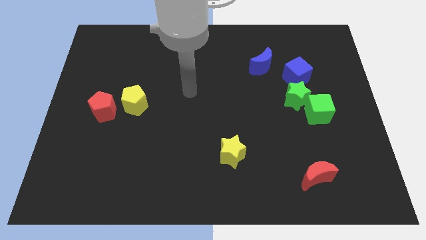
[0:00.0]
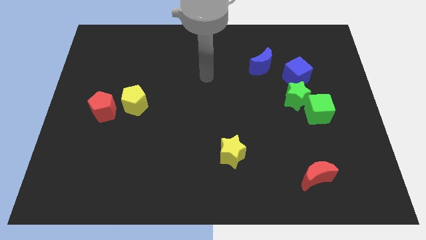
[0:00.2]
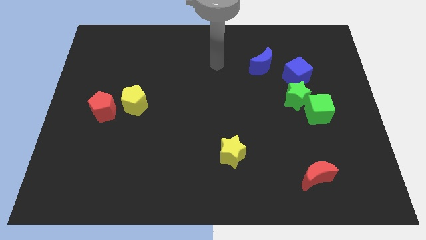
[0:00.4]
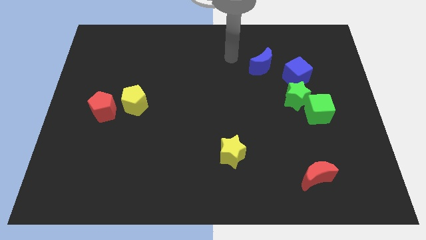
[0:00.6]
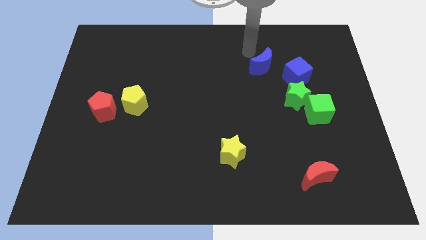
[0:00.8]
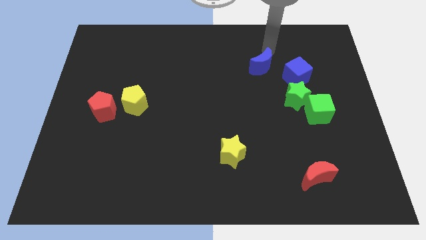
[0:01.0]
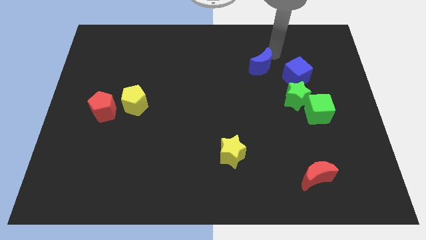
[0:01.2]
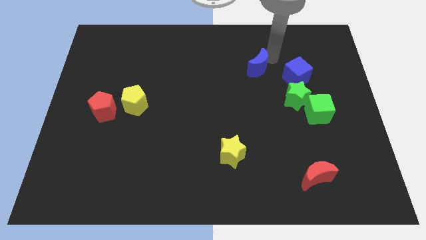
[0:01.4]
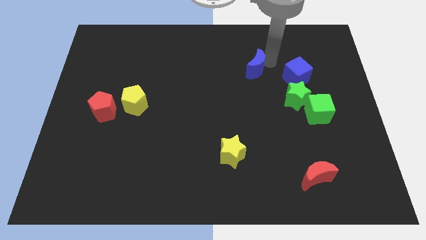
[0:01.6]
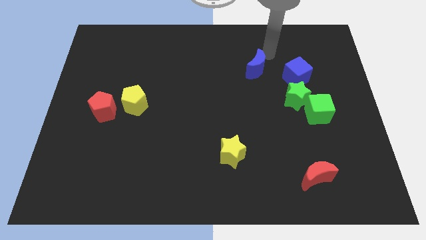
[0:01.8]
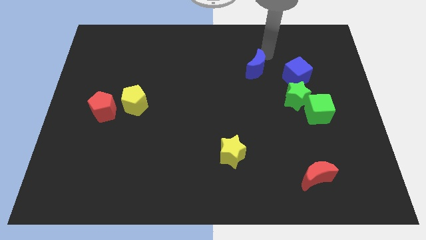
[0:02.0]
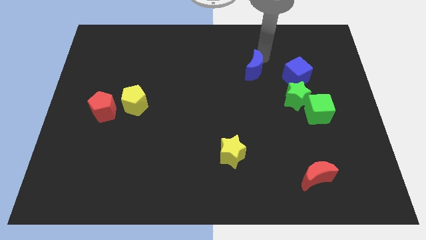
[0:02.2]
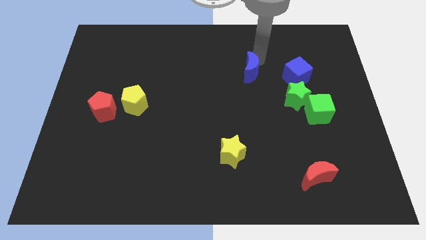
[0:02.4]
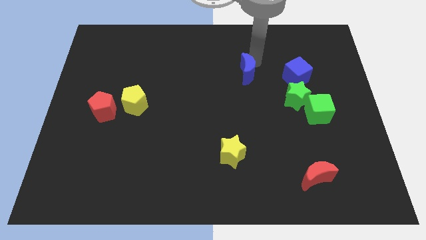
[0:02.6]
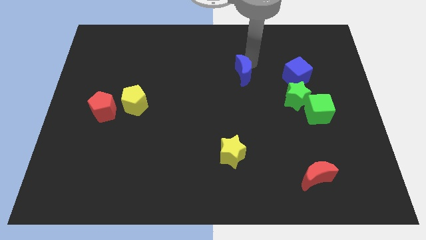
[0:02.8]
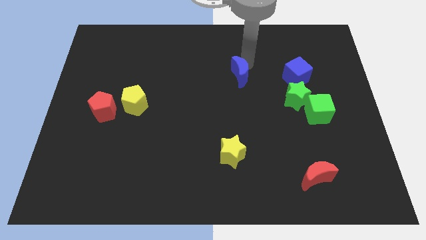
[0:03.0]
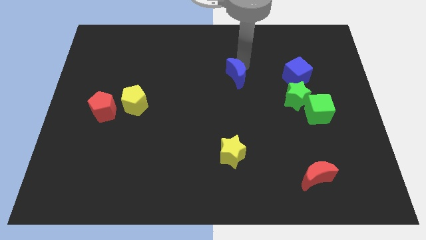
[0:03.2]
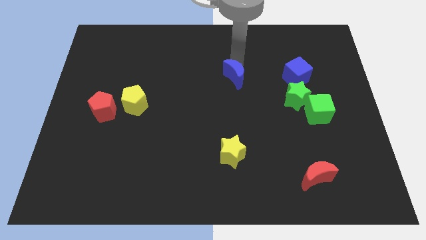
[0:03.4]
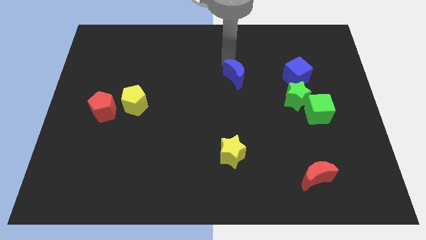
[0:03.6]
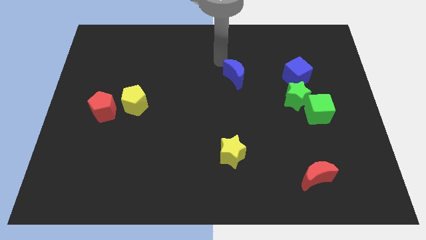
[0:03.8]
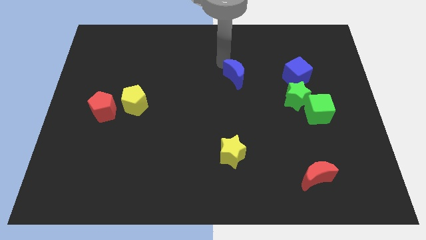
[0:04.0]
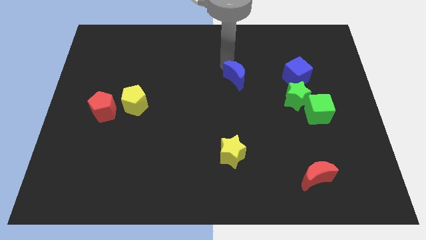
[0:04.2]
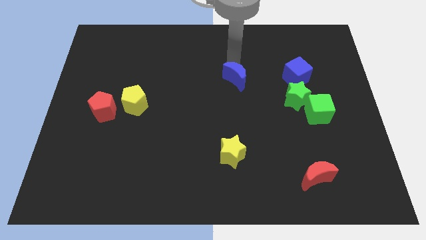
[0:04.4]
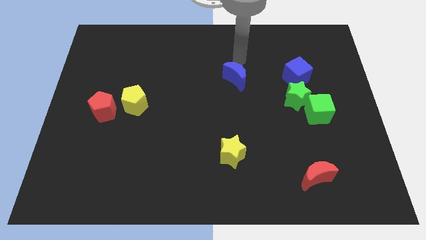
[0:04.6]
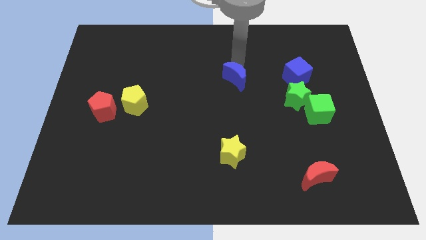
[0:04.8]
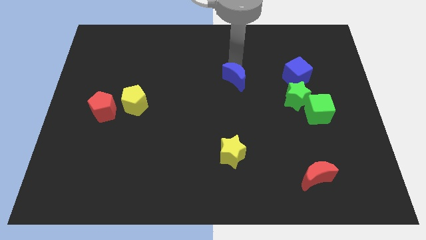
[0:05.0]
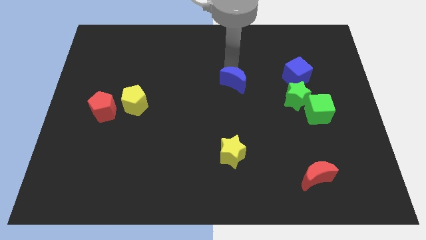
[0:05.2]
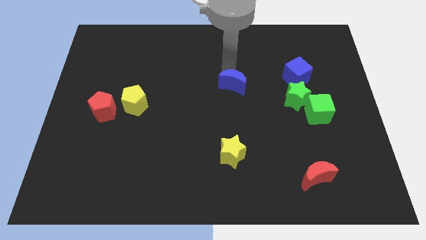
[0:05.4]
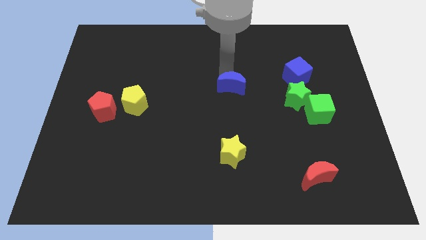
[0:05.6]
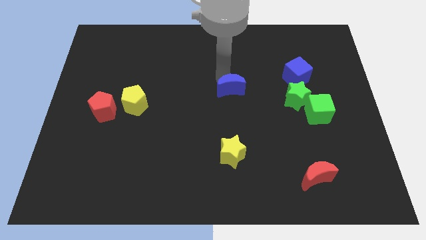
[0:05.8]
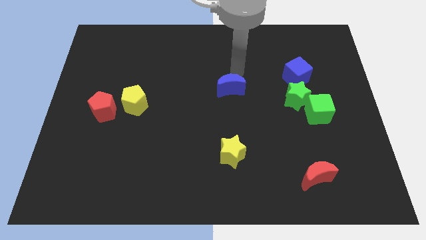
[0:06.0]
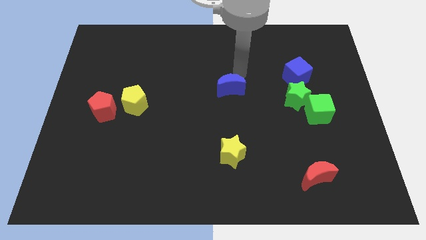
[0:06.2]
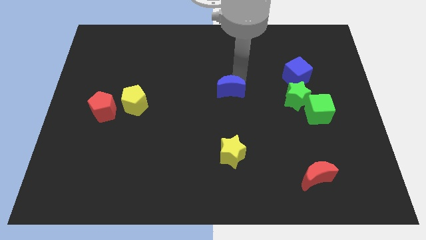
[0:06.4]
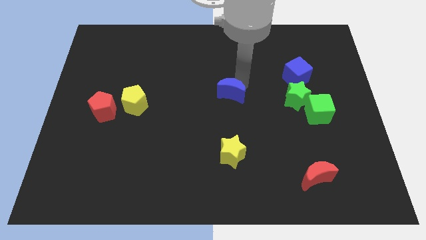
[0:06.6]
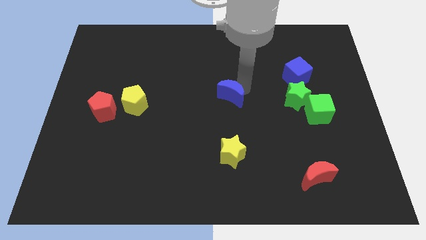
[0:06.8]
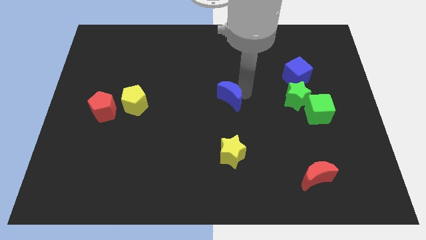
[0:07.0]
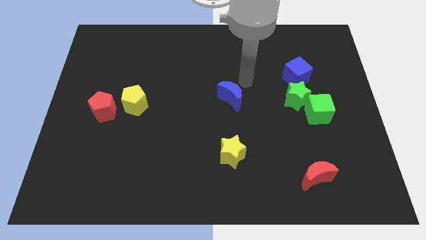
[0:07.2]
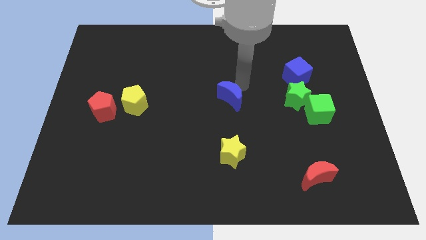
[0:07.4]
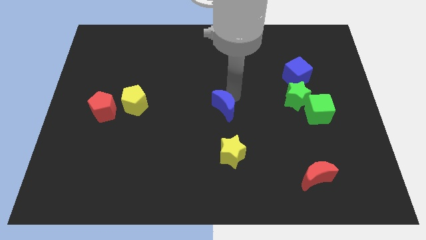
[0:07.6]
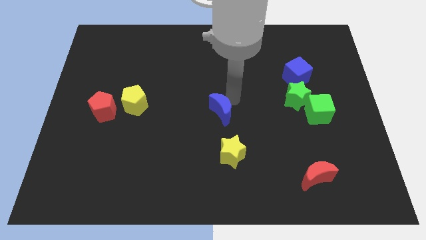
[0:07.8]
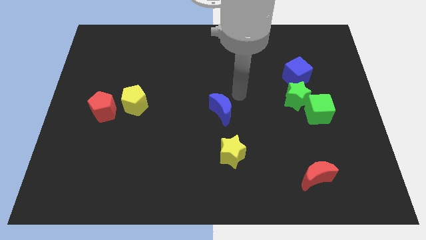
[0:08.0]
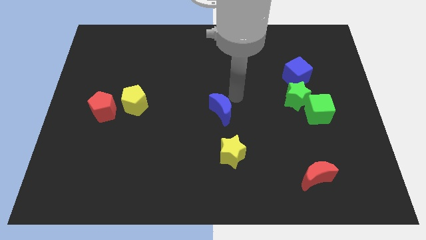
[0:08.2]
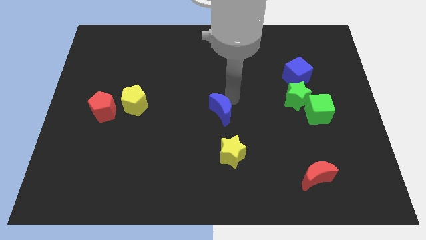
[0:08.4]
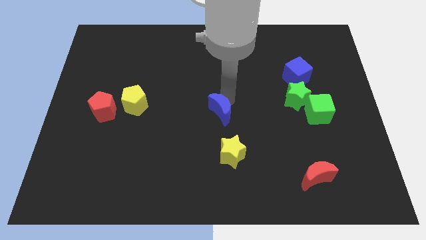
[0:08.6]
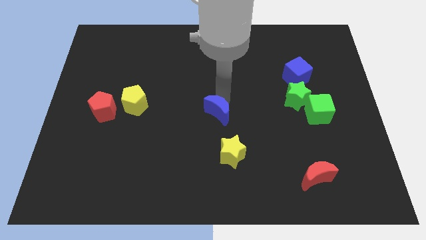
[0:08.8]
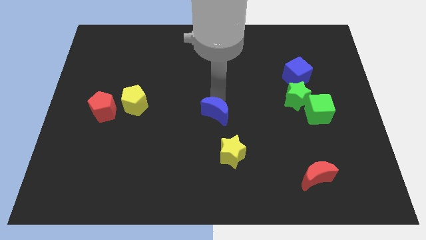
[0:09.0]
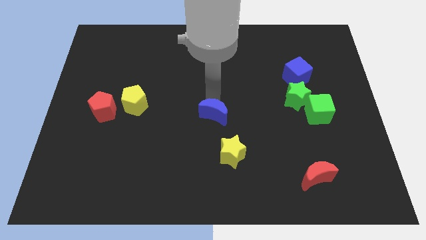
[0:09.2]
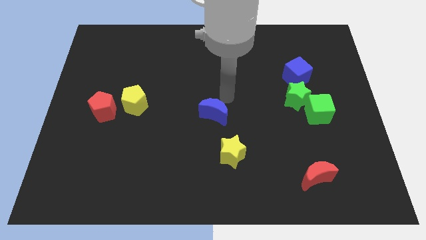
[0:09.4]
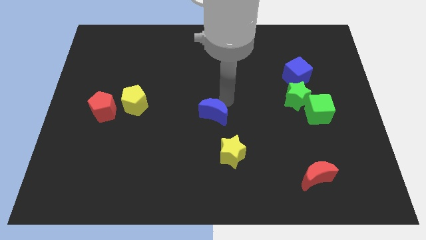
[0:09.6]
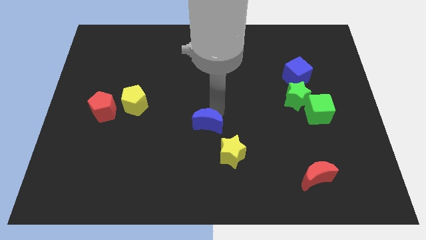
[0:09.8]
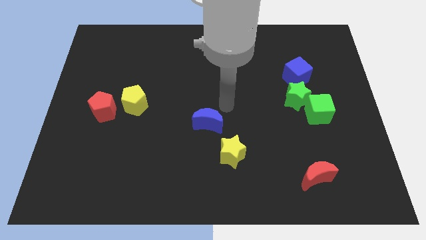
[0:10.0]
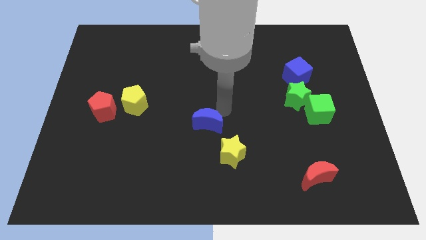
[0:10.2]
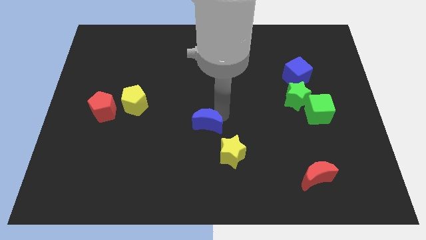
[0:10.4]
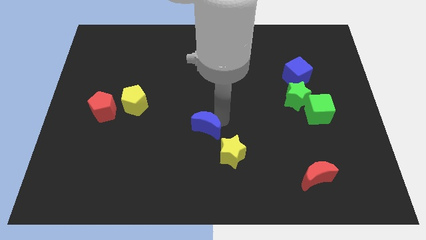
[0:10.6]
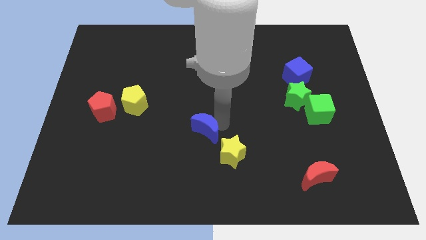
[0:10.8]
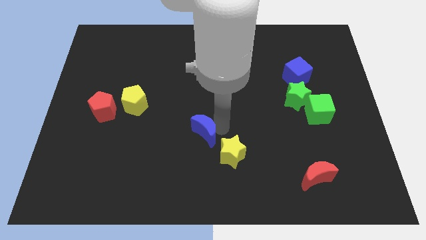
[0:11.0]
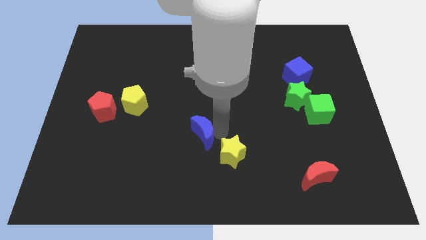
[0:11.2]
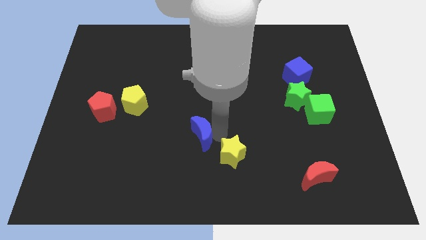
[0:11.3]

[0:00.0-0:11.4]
move the blue moon left of the yellow star

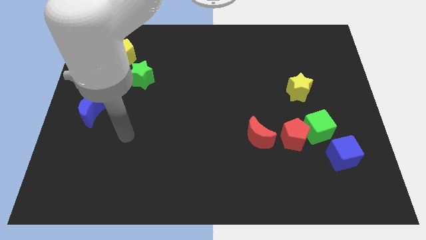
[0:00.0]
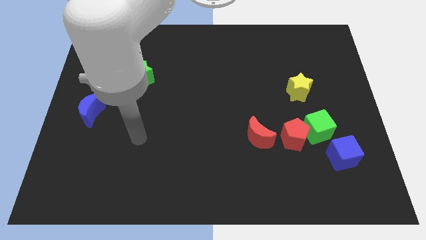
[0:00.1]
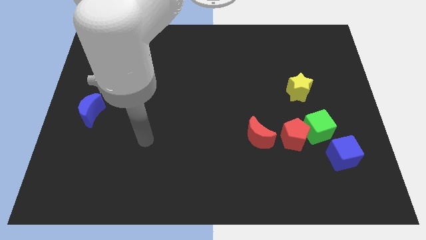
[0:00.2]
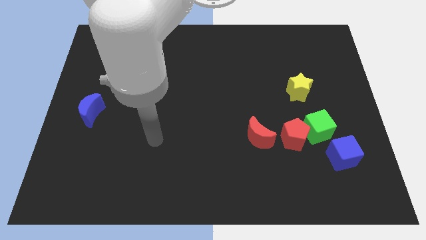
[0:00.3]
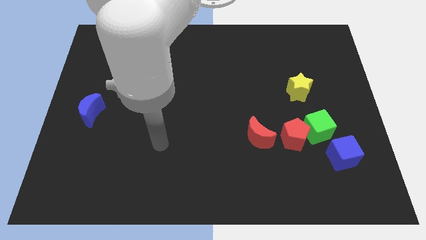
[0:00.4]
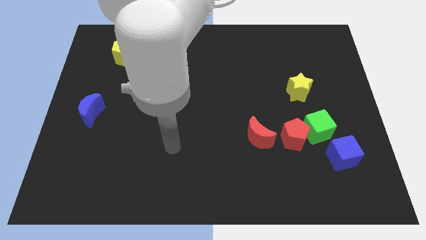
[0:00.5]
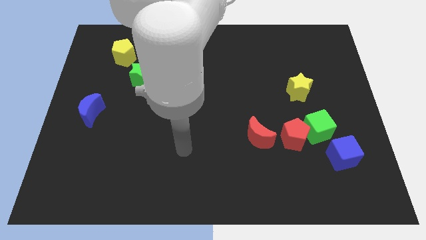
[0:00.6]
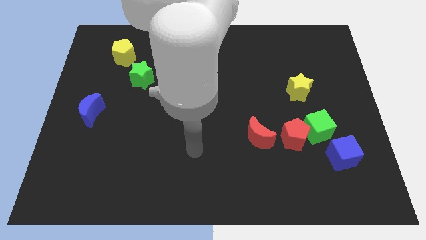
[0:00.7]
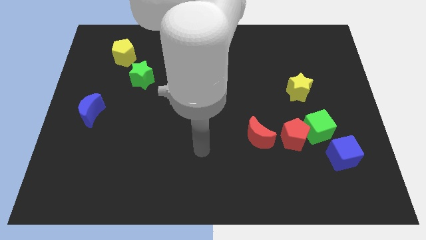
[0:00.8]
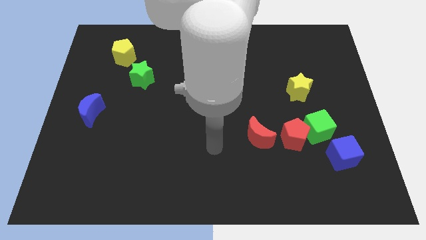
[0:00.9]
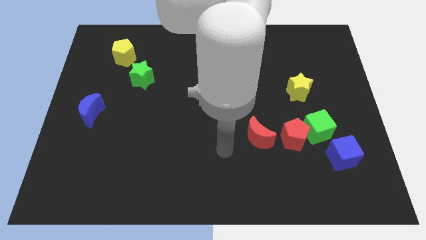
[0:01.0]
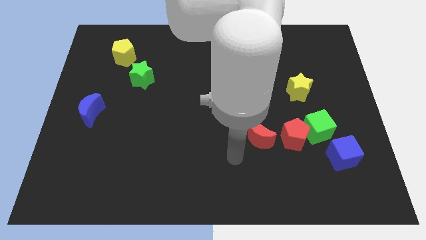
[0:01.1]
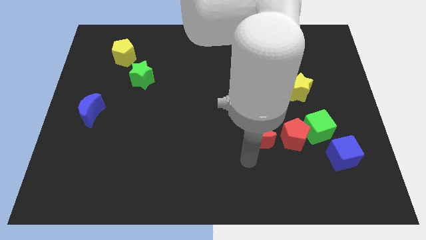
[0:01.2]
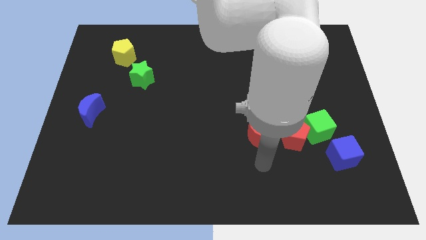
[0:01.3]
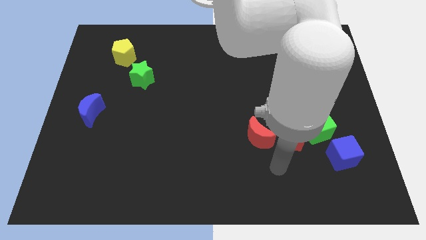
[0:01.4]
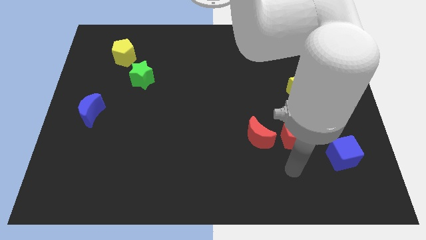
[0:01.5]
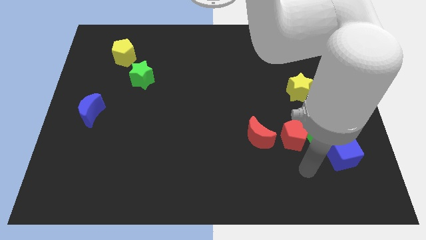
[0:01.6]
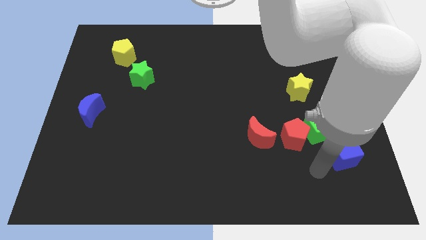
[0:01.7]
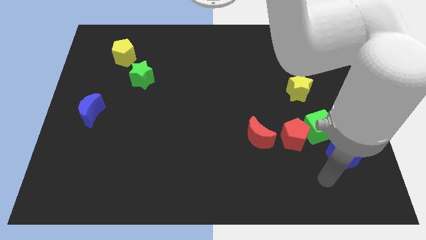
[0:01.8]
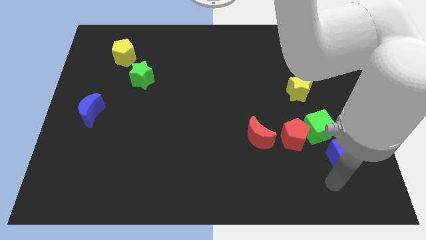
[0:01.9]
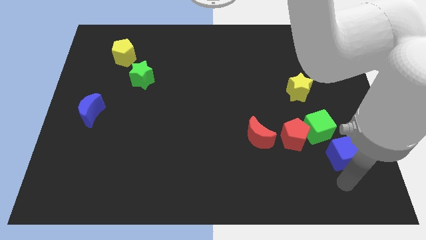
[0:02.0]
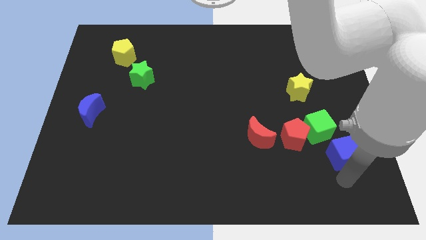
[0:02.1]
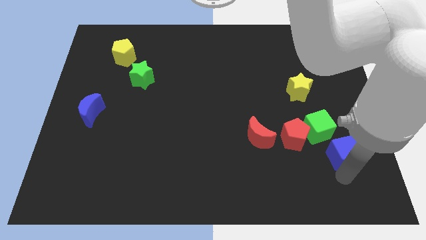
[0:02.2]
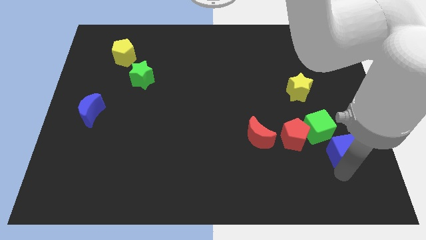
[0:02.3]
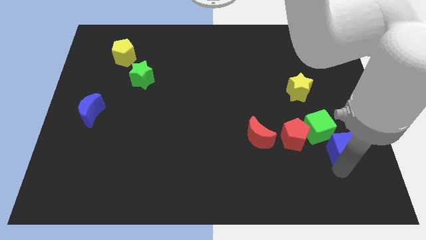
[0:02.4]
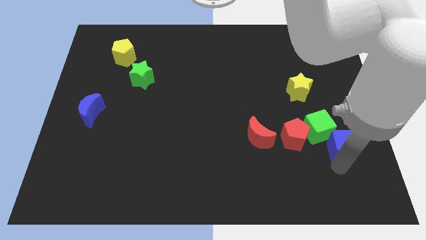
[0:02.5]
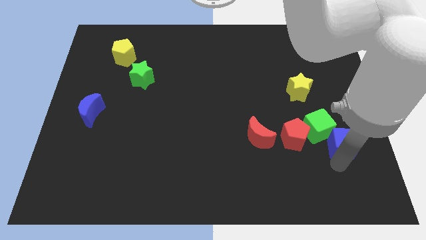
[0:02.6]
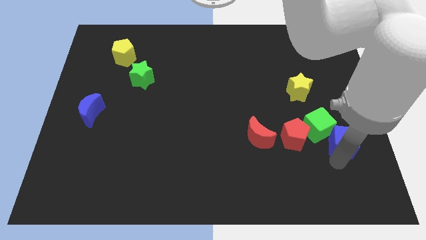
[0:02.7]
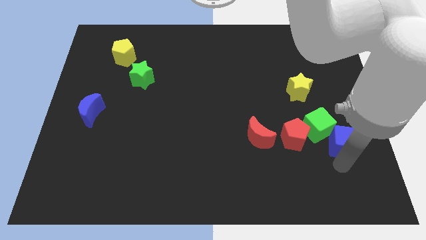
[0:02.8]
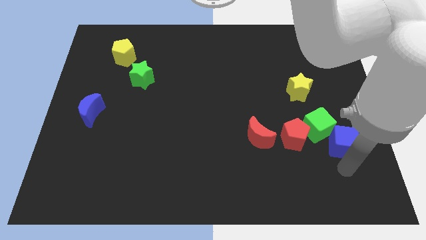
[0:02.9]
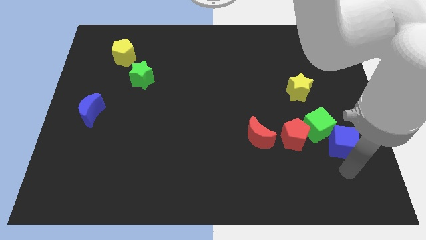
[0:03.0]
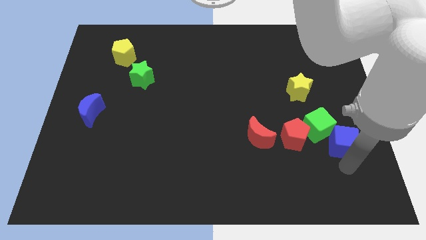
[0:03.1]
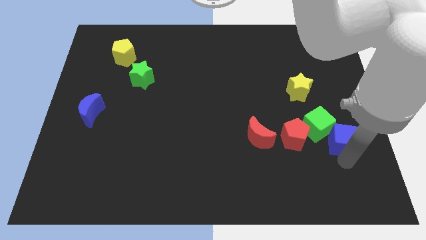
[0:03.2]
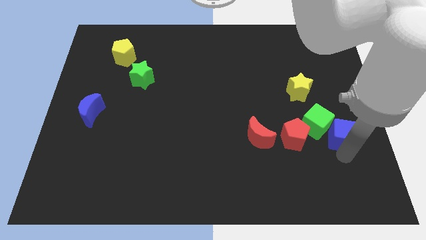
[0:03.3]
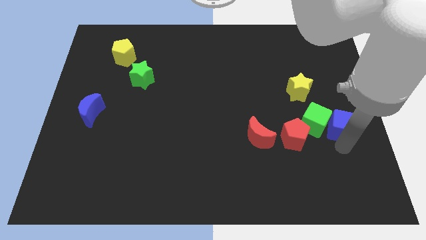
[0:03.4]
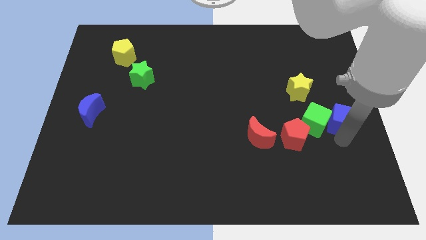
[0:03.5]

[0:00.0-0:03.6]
push the blue cube to the top right side of the green cube
